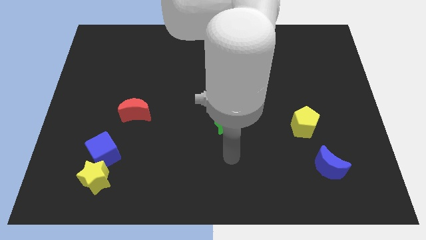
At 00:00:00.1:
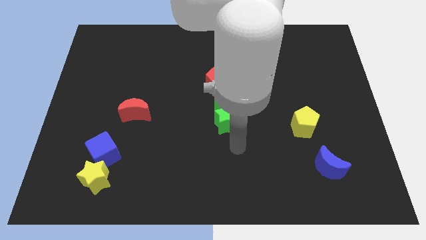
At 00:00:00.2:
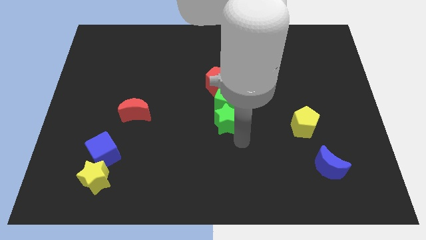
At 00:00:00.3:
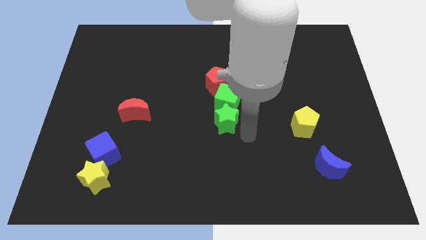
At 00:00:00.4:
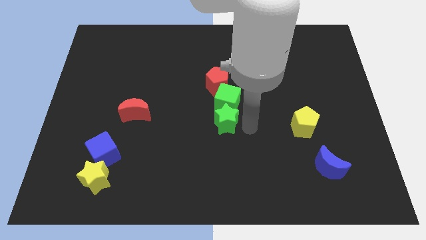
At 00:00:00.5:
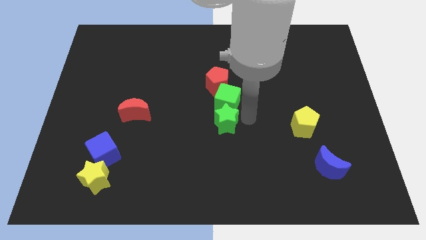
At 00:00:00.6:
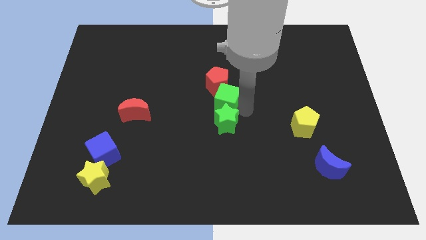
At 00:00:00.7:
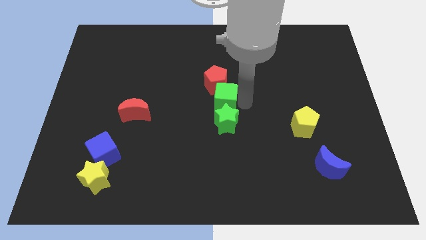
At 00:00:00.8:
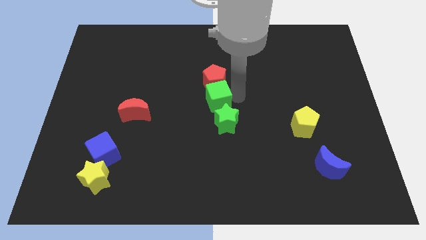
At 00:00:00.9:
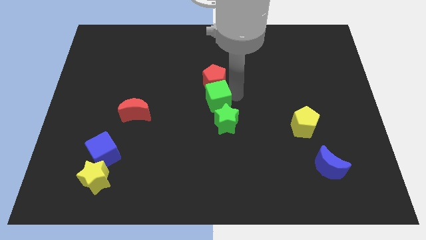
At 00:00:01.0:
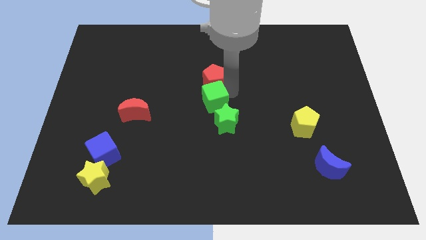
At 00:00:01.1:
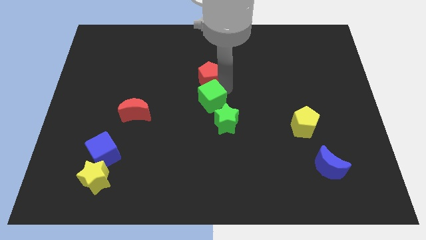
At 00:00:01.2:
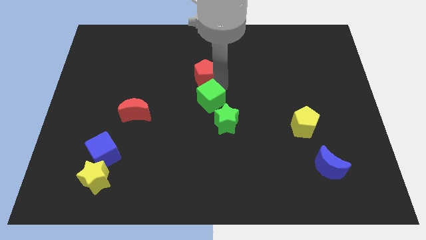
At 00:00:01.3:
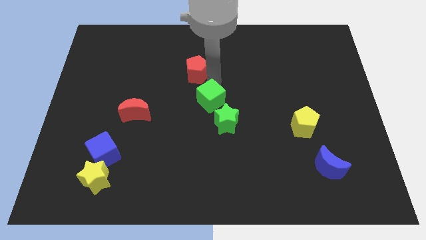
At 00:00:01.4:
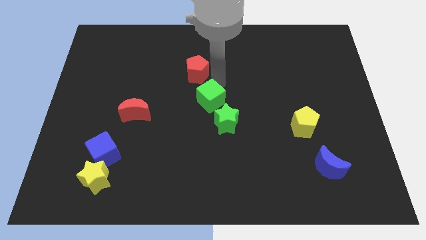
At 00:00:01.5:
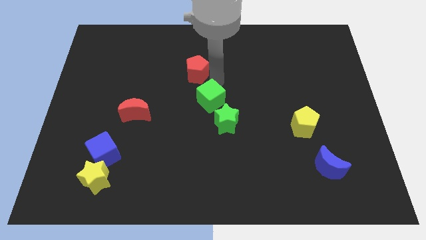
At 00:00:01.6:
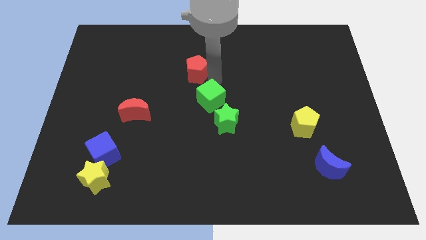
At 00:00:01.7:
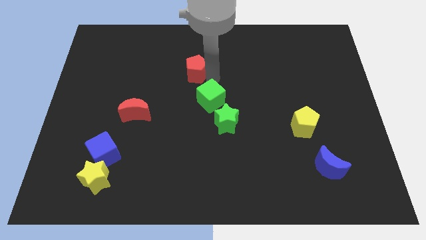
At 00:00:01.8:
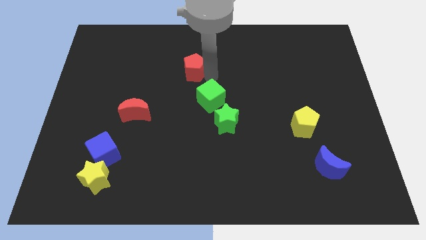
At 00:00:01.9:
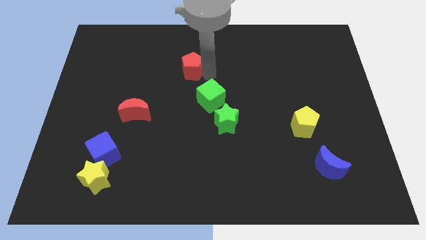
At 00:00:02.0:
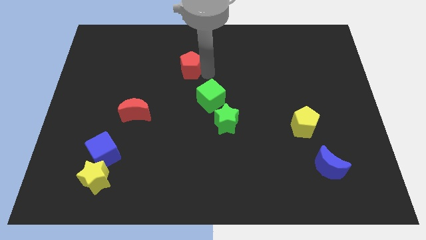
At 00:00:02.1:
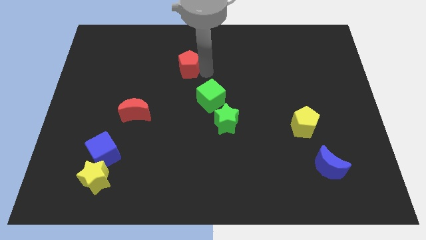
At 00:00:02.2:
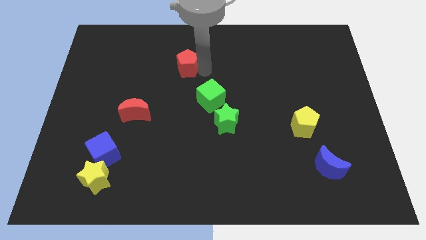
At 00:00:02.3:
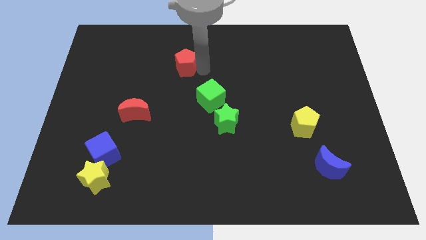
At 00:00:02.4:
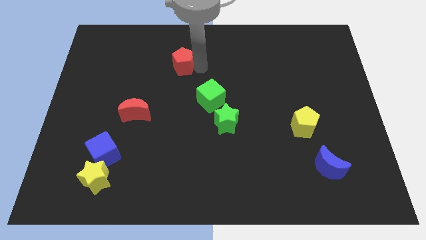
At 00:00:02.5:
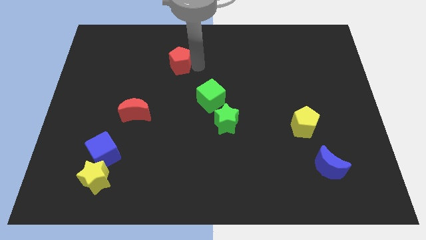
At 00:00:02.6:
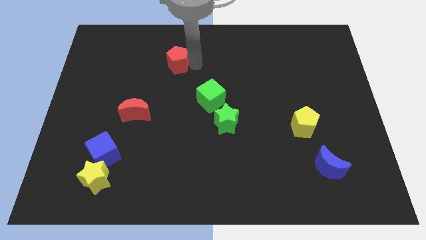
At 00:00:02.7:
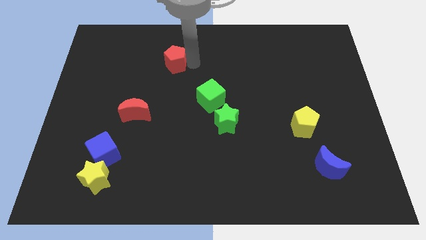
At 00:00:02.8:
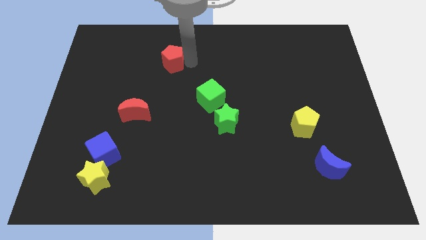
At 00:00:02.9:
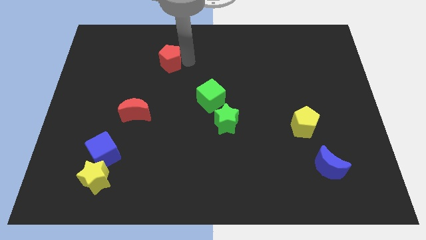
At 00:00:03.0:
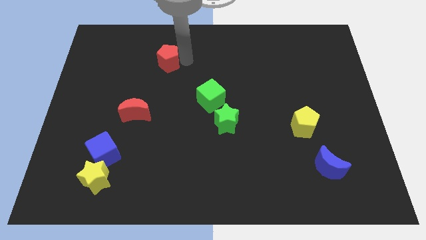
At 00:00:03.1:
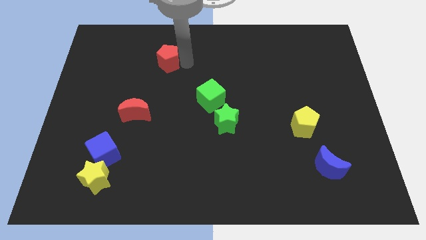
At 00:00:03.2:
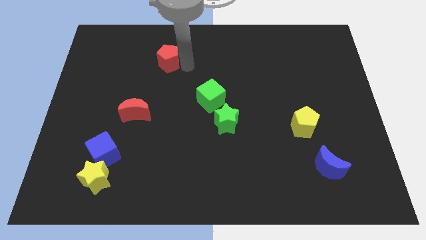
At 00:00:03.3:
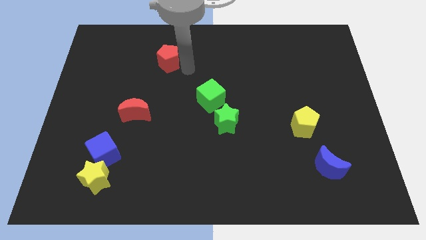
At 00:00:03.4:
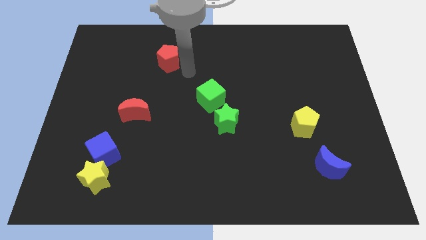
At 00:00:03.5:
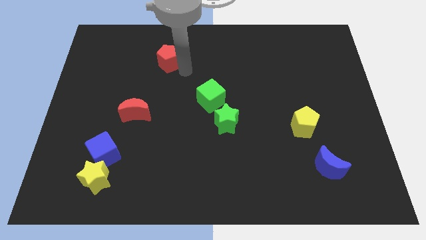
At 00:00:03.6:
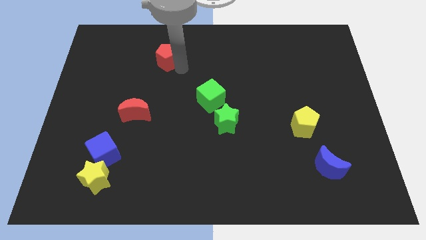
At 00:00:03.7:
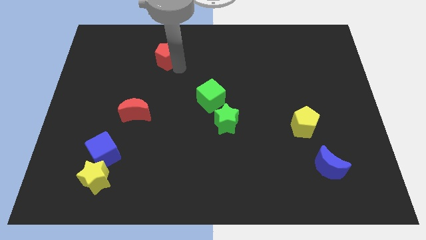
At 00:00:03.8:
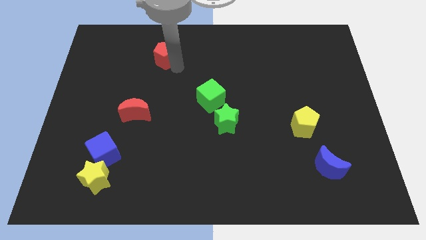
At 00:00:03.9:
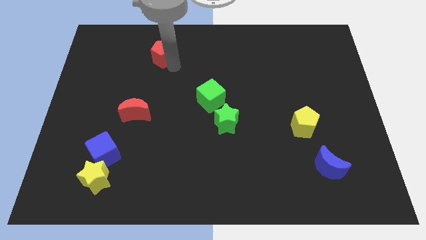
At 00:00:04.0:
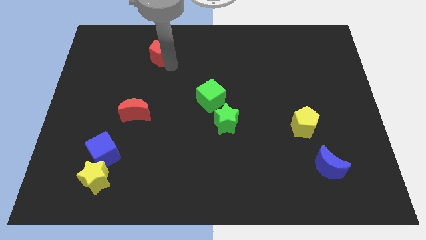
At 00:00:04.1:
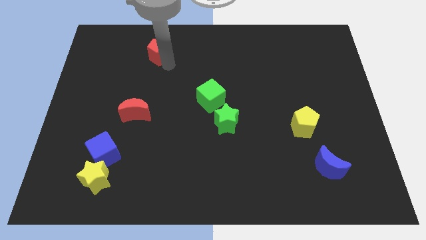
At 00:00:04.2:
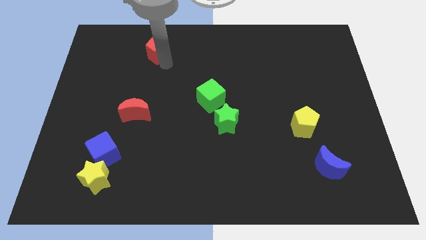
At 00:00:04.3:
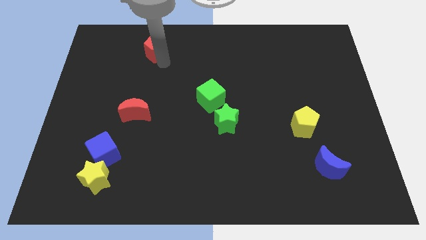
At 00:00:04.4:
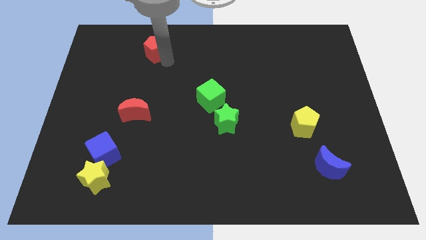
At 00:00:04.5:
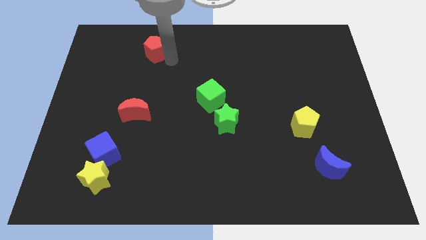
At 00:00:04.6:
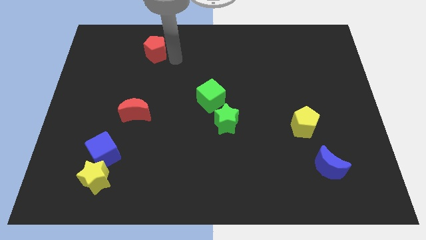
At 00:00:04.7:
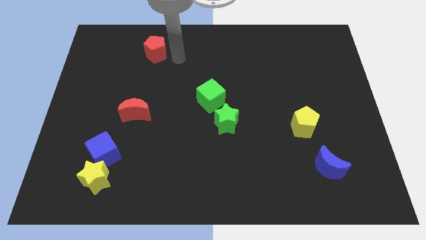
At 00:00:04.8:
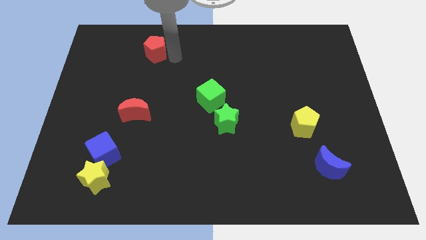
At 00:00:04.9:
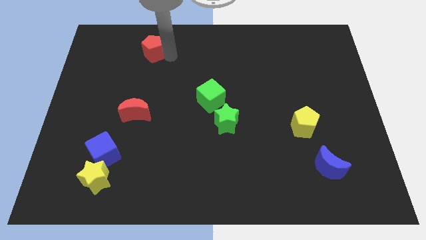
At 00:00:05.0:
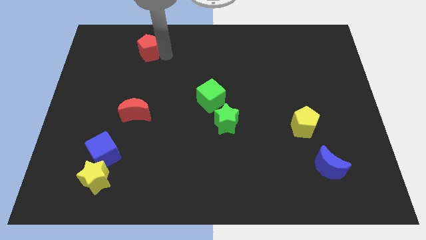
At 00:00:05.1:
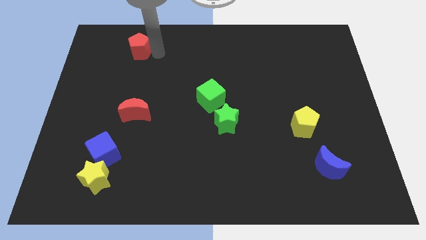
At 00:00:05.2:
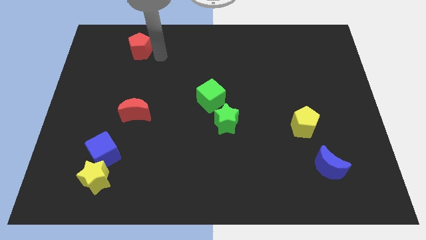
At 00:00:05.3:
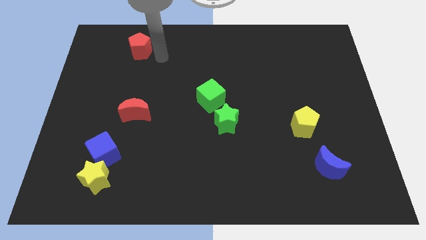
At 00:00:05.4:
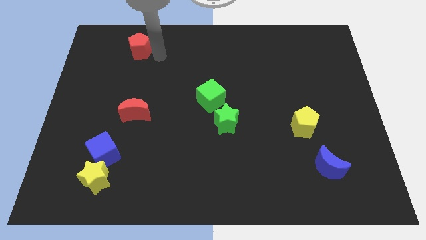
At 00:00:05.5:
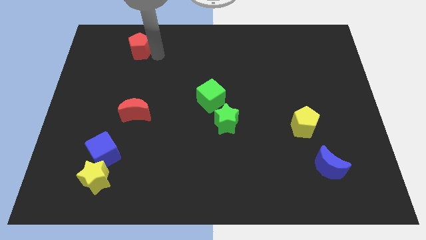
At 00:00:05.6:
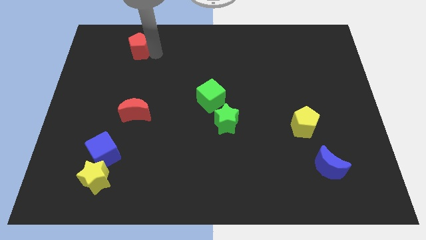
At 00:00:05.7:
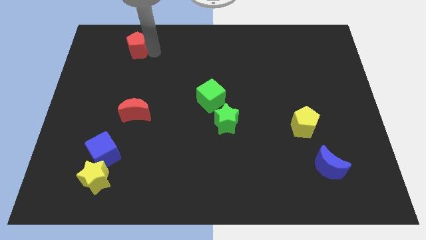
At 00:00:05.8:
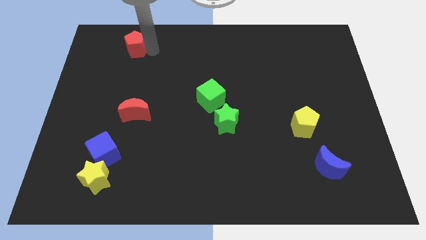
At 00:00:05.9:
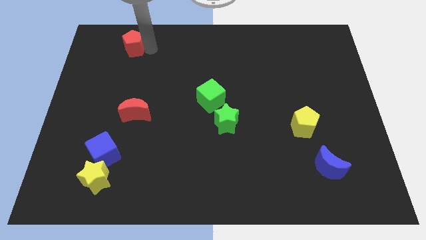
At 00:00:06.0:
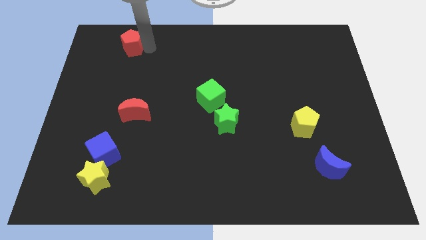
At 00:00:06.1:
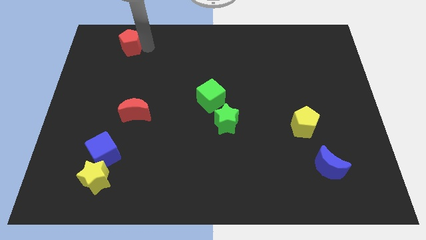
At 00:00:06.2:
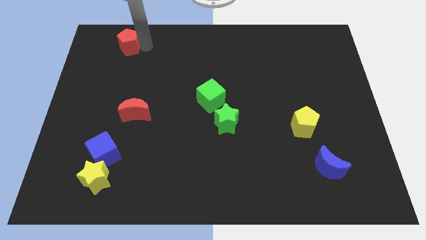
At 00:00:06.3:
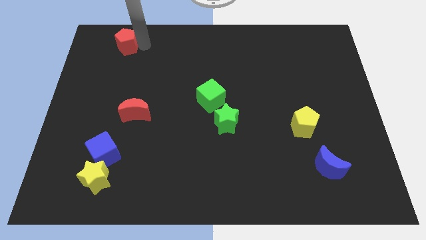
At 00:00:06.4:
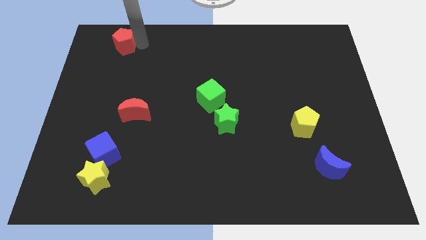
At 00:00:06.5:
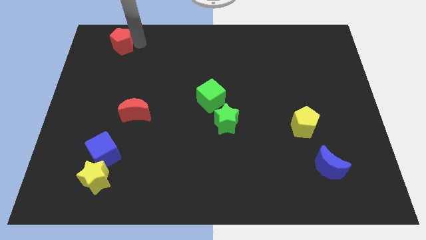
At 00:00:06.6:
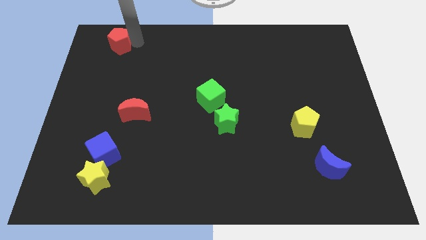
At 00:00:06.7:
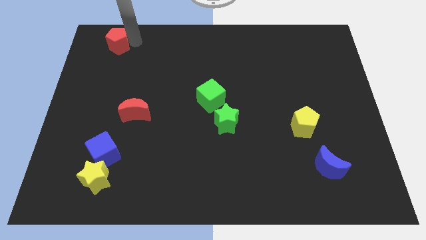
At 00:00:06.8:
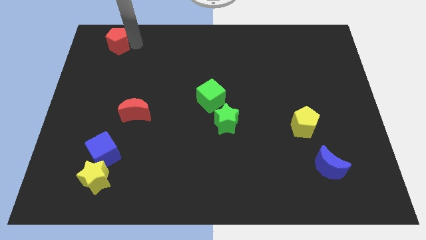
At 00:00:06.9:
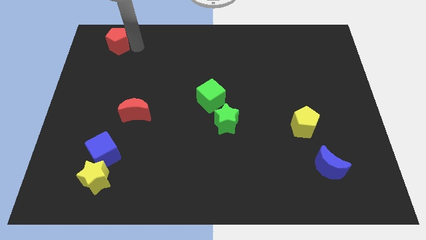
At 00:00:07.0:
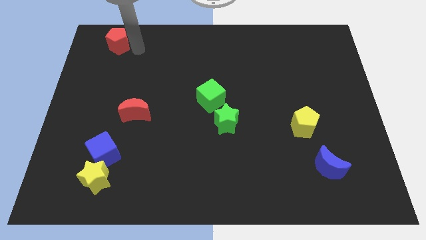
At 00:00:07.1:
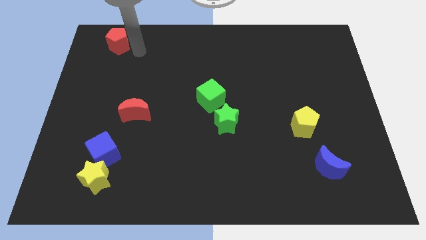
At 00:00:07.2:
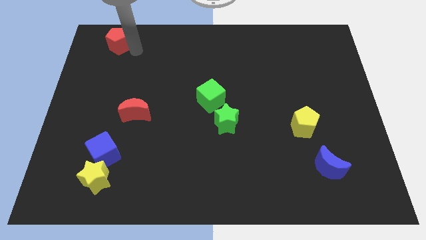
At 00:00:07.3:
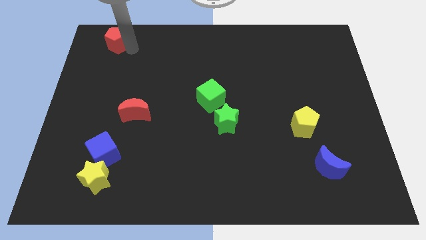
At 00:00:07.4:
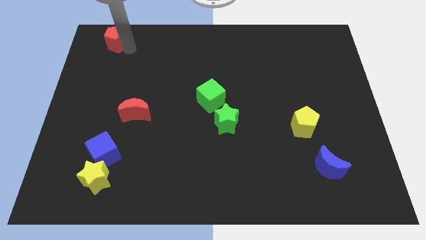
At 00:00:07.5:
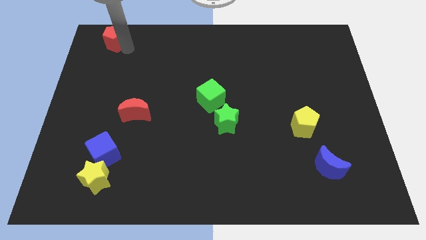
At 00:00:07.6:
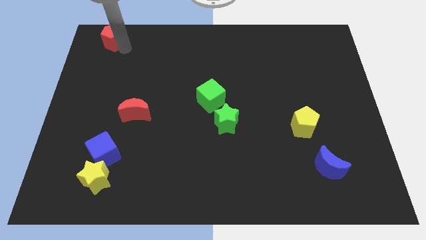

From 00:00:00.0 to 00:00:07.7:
push the red pentagon to the top left corner
